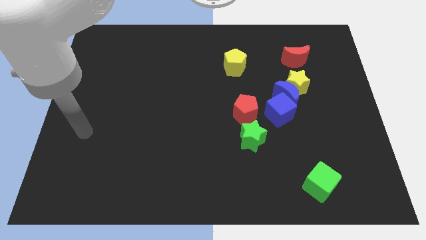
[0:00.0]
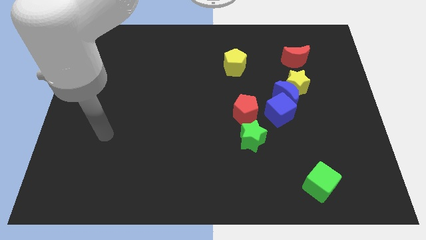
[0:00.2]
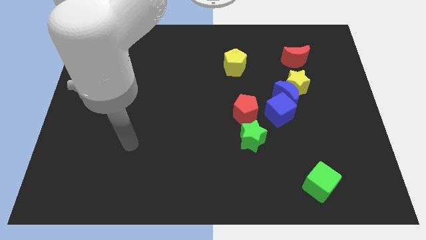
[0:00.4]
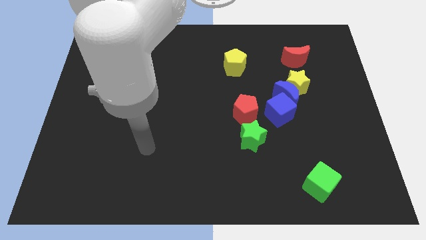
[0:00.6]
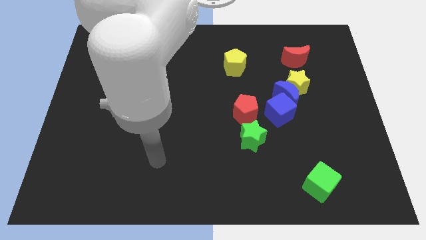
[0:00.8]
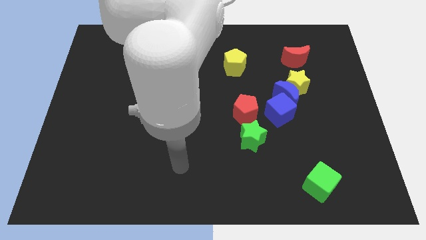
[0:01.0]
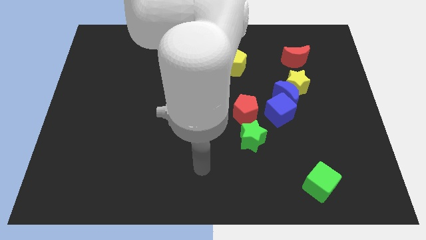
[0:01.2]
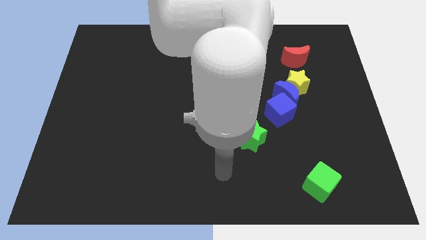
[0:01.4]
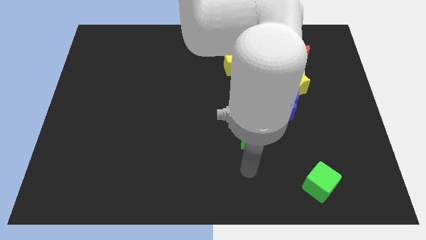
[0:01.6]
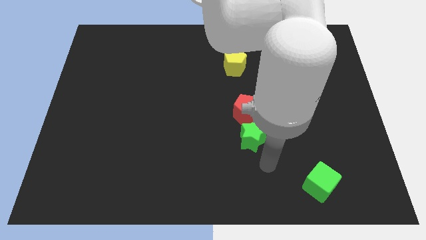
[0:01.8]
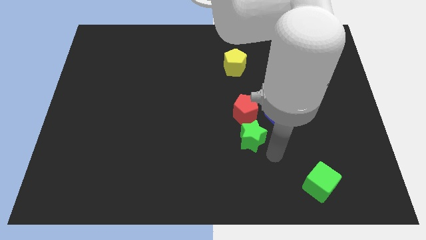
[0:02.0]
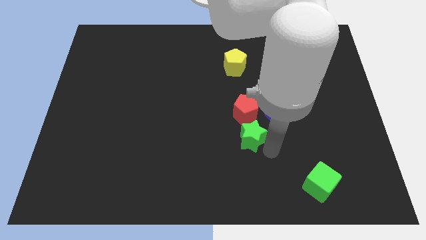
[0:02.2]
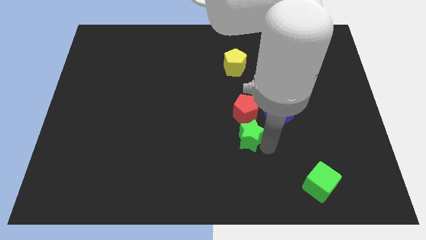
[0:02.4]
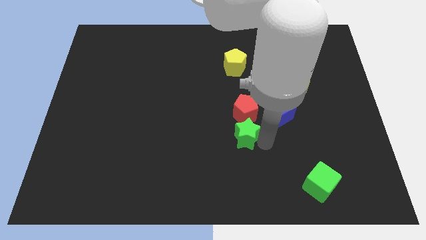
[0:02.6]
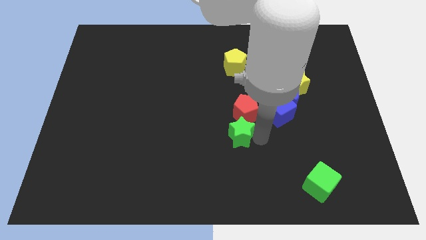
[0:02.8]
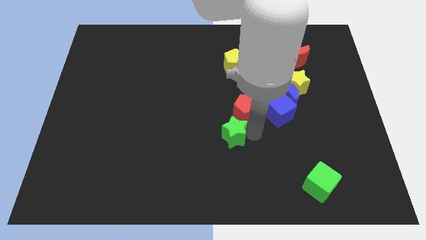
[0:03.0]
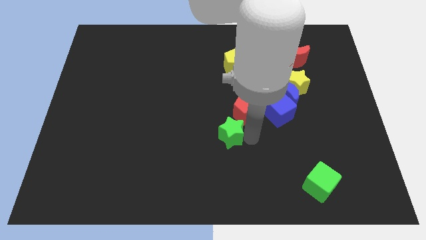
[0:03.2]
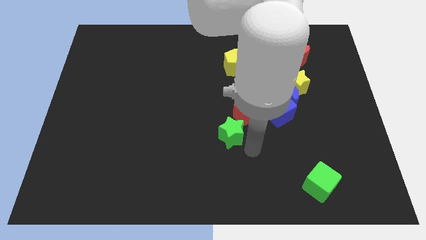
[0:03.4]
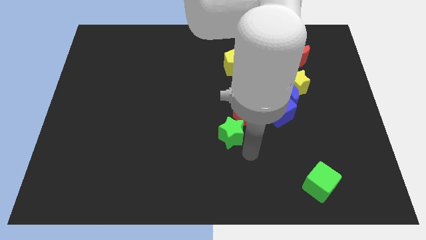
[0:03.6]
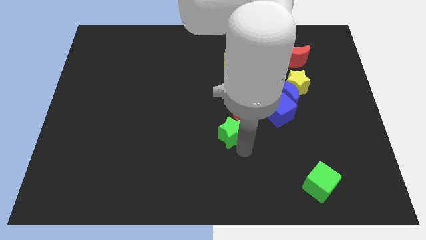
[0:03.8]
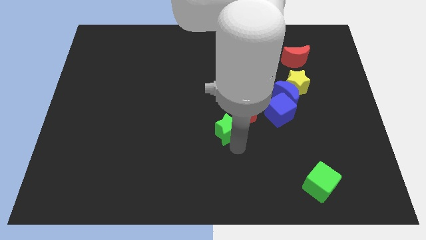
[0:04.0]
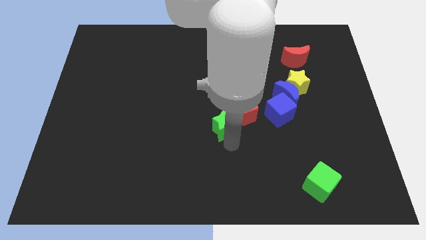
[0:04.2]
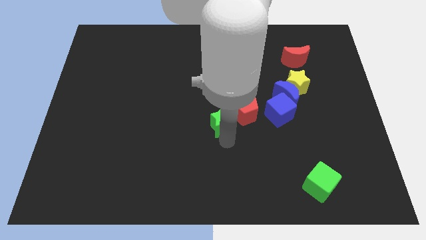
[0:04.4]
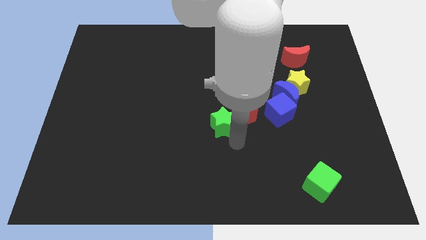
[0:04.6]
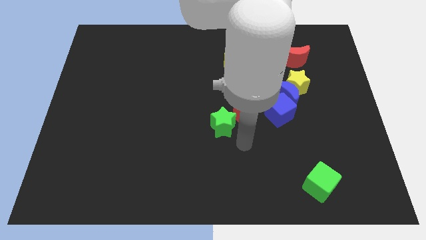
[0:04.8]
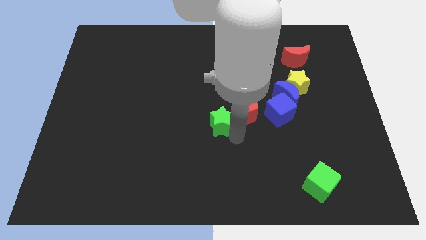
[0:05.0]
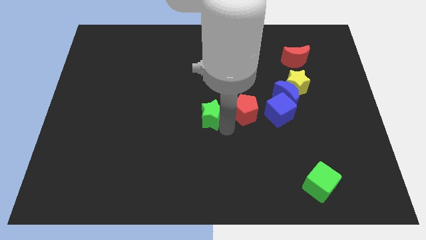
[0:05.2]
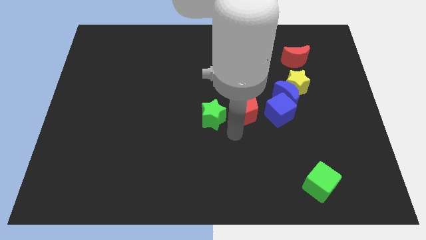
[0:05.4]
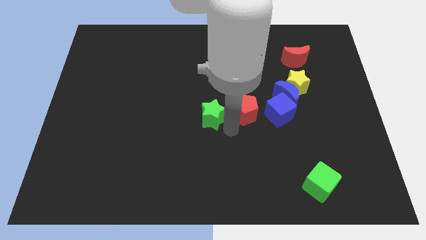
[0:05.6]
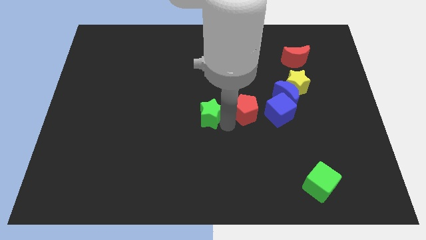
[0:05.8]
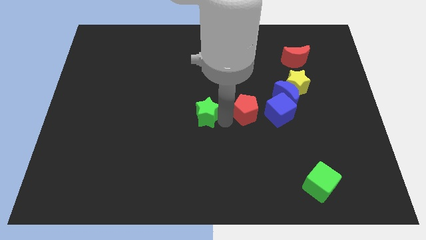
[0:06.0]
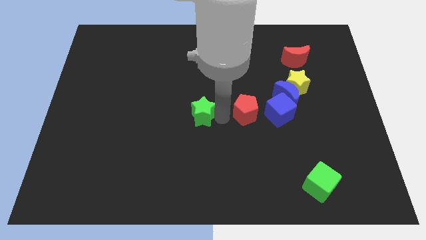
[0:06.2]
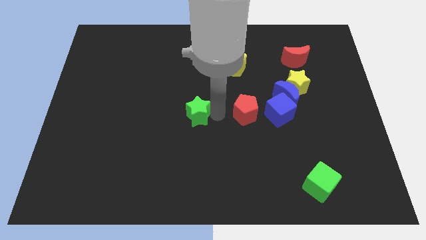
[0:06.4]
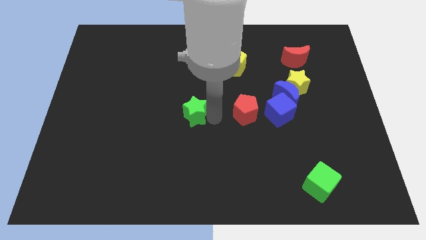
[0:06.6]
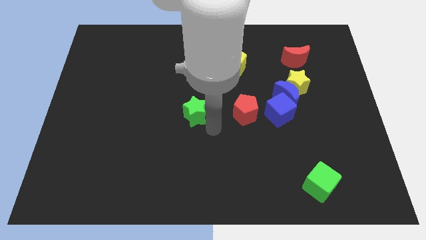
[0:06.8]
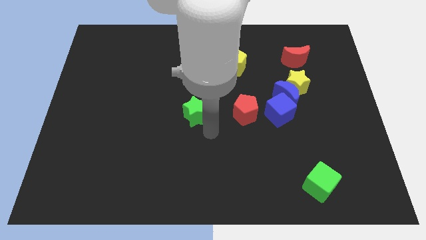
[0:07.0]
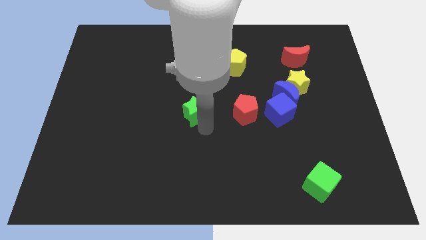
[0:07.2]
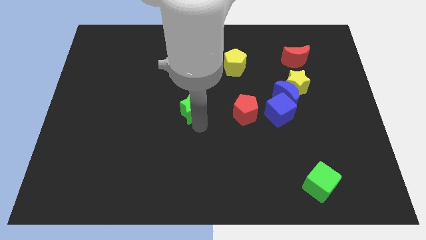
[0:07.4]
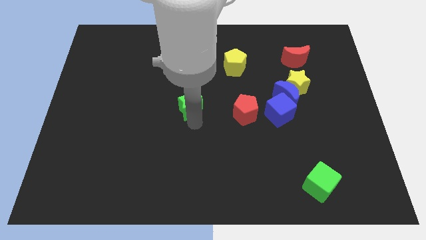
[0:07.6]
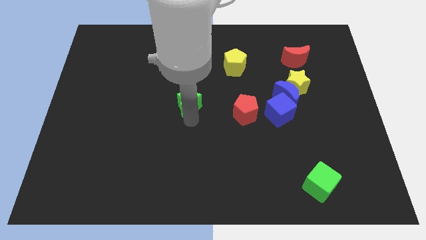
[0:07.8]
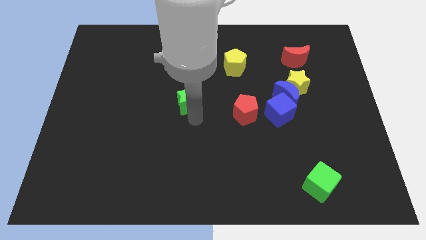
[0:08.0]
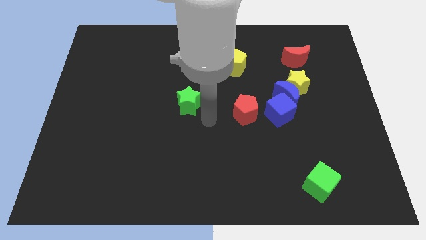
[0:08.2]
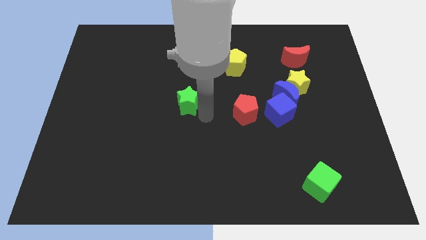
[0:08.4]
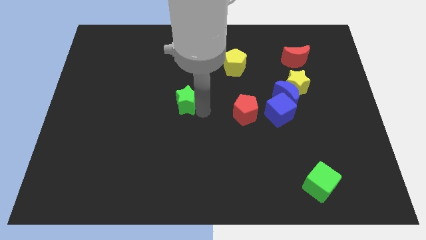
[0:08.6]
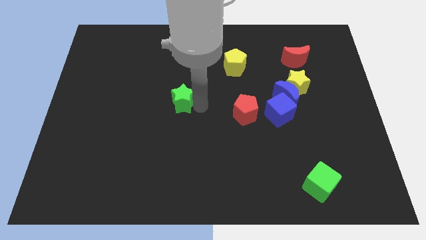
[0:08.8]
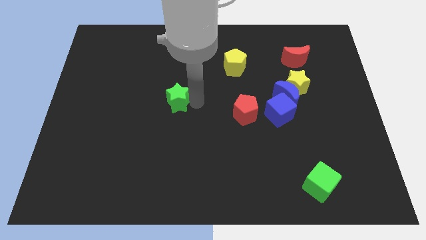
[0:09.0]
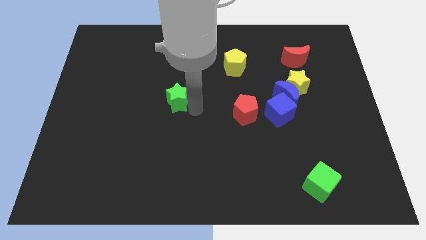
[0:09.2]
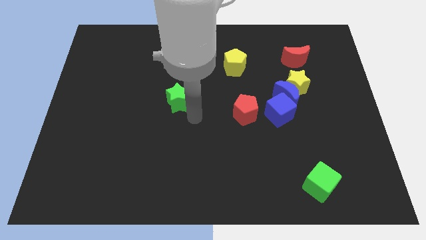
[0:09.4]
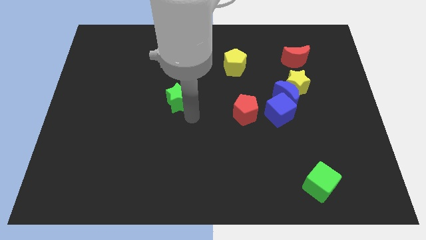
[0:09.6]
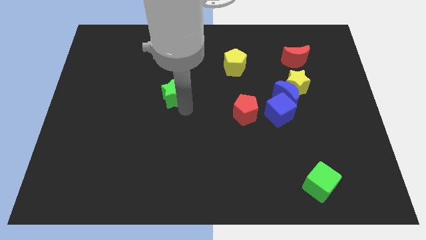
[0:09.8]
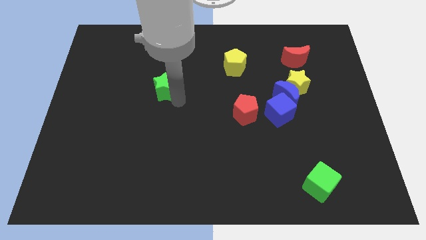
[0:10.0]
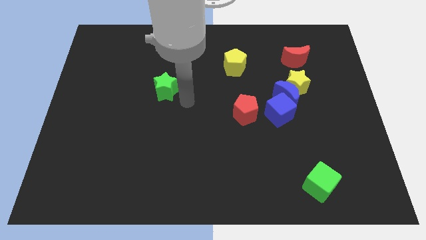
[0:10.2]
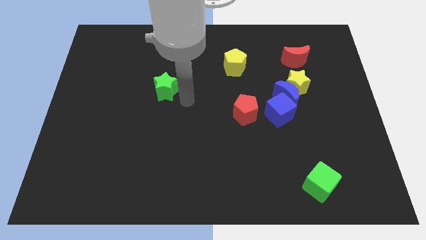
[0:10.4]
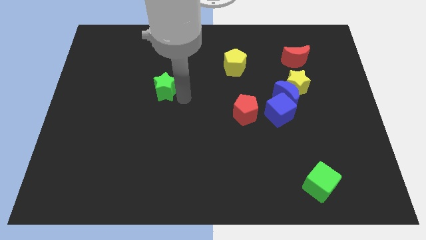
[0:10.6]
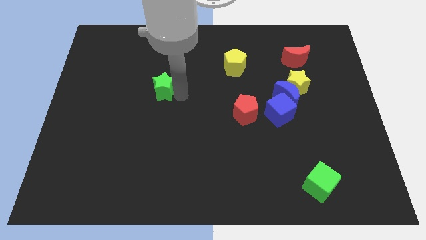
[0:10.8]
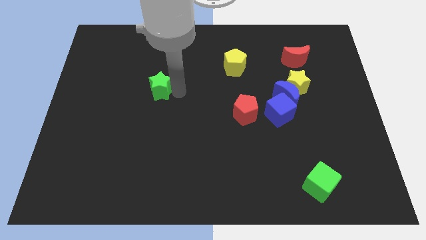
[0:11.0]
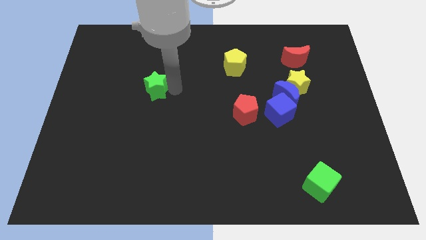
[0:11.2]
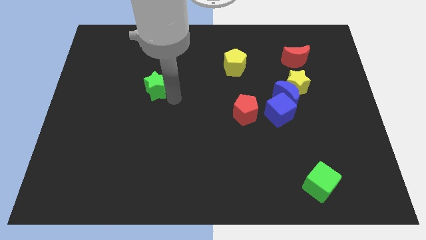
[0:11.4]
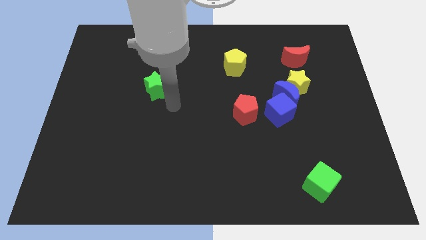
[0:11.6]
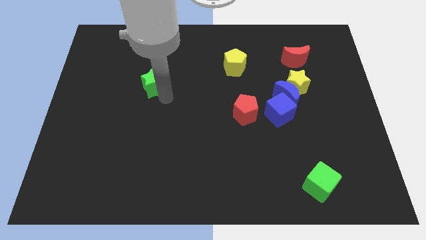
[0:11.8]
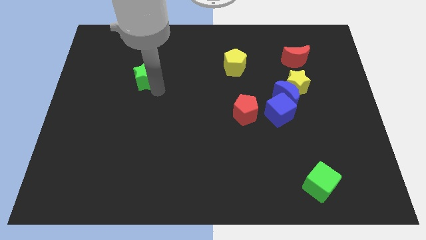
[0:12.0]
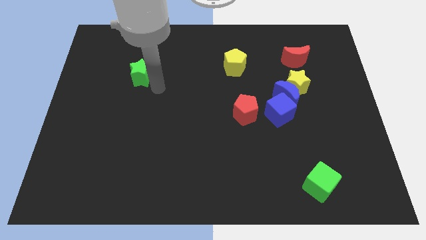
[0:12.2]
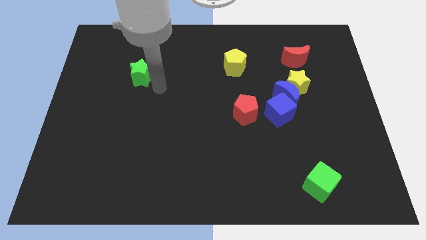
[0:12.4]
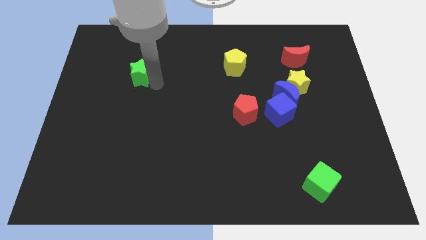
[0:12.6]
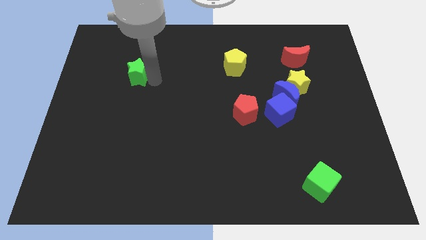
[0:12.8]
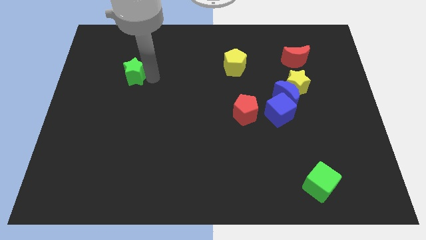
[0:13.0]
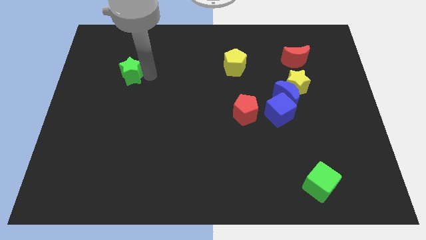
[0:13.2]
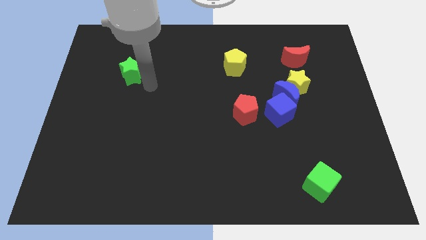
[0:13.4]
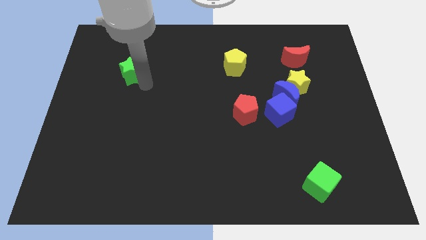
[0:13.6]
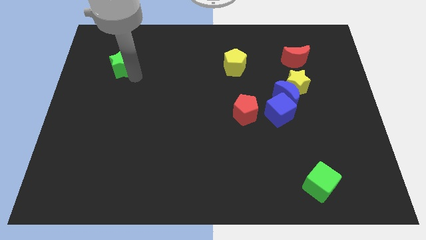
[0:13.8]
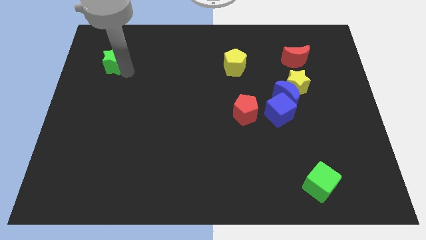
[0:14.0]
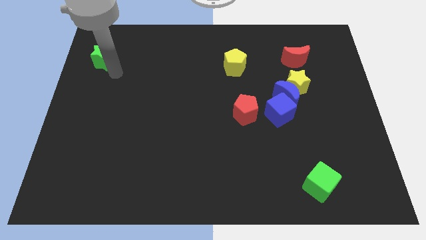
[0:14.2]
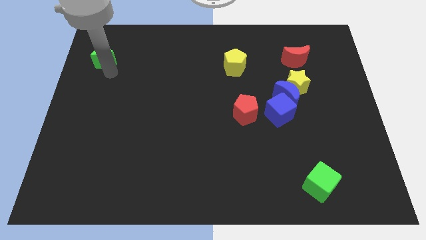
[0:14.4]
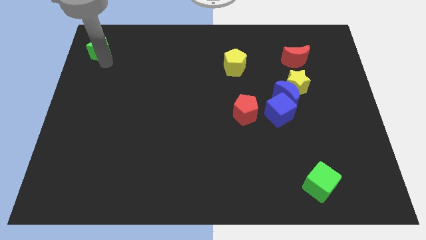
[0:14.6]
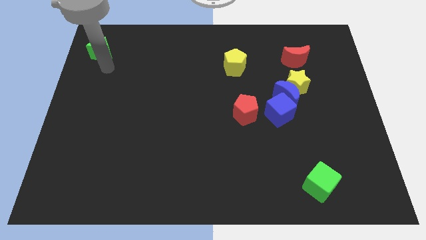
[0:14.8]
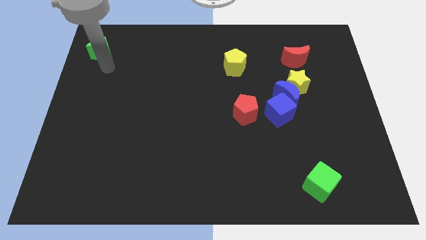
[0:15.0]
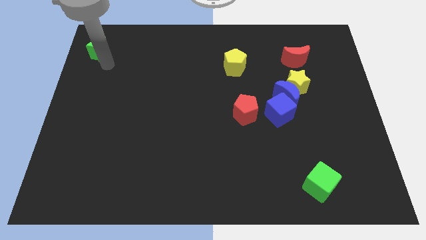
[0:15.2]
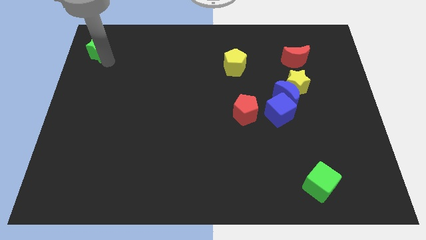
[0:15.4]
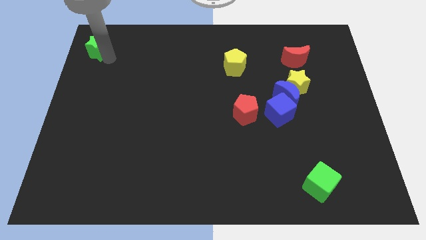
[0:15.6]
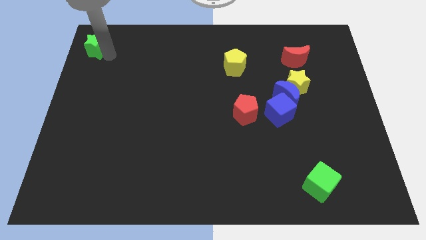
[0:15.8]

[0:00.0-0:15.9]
push the green star to the top left
